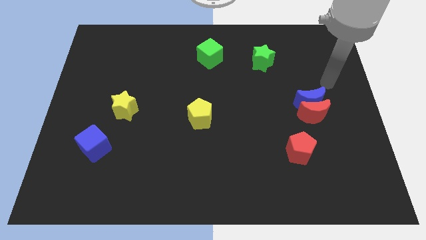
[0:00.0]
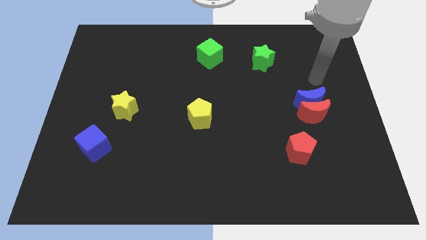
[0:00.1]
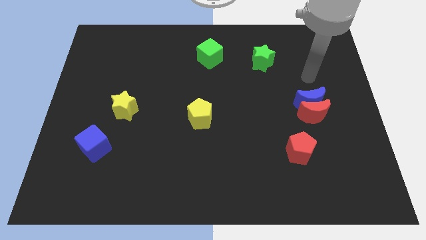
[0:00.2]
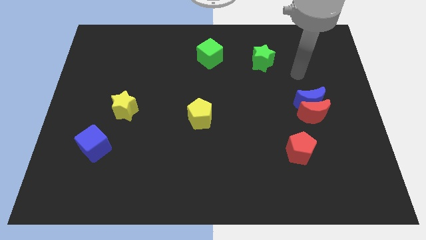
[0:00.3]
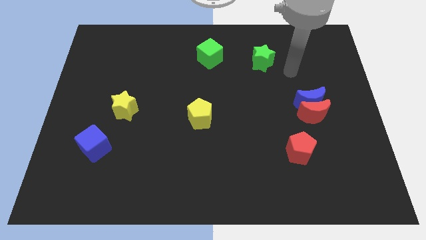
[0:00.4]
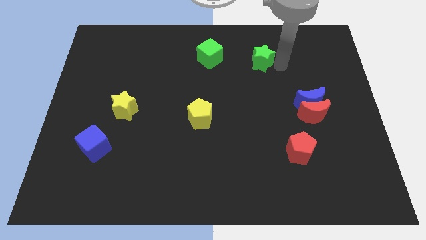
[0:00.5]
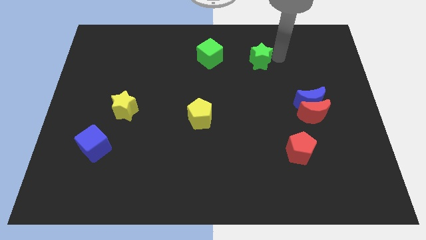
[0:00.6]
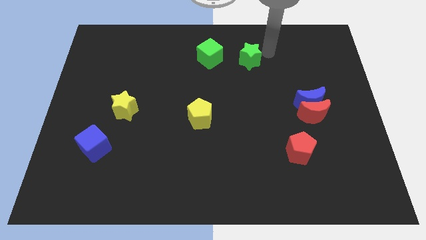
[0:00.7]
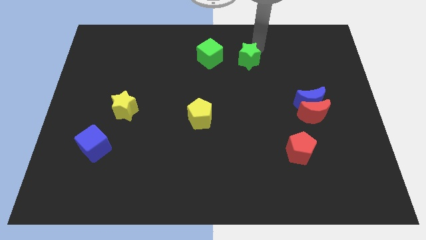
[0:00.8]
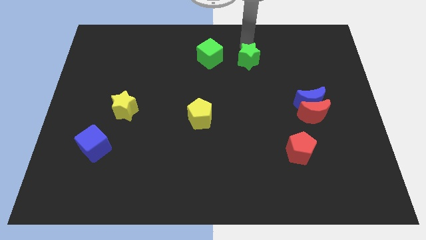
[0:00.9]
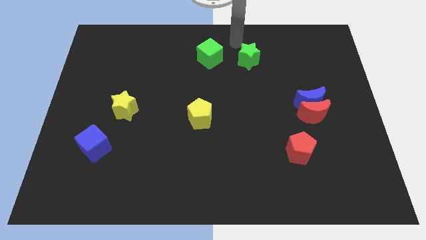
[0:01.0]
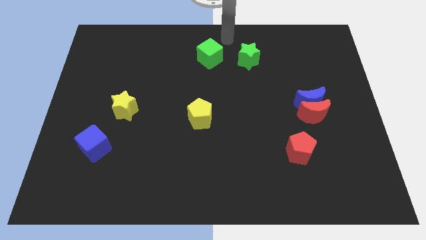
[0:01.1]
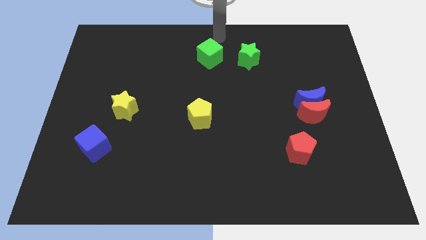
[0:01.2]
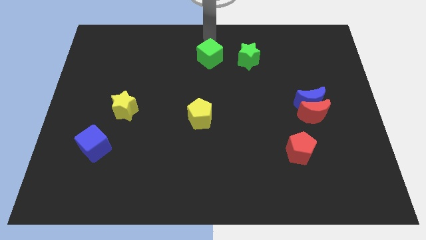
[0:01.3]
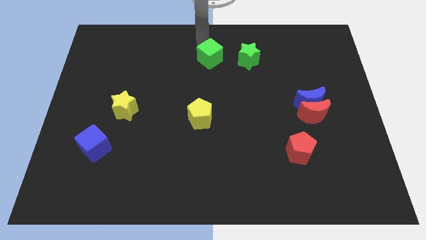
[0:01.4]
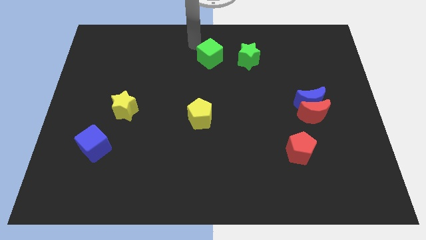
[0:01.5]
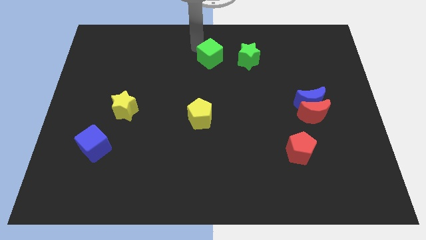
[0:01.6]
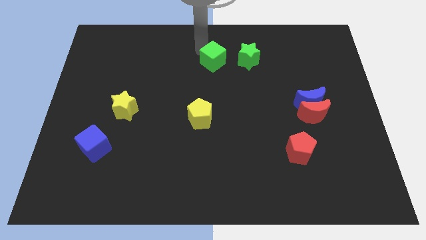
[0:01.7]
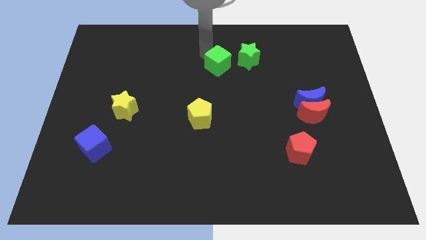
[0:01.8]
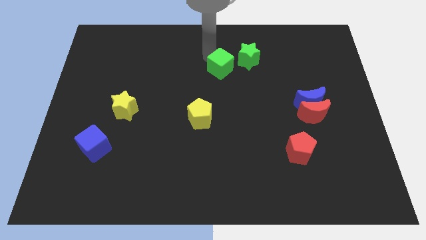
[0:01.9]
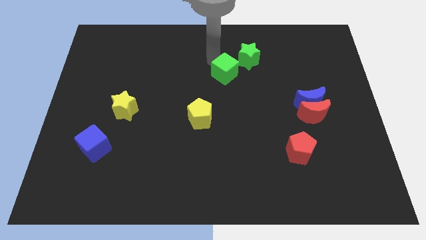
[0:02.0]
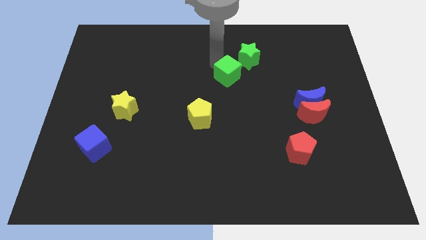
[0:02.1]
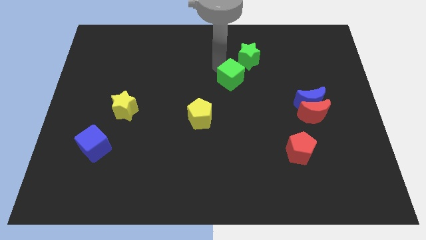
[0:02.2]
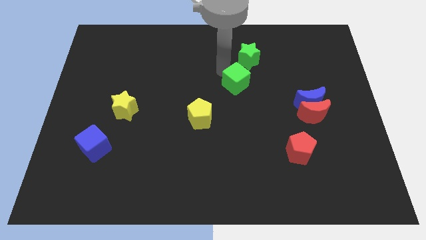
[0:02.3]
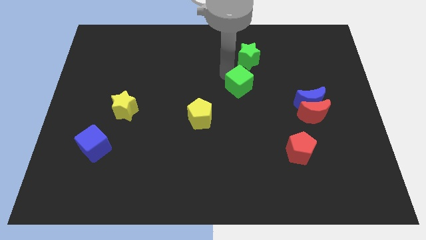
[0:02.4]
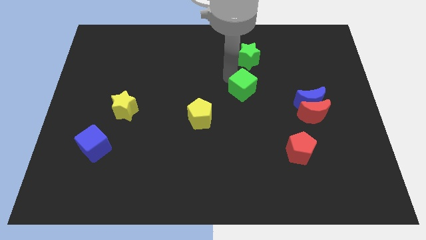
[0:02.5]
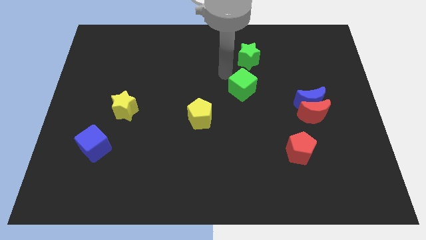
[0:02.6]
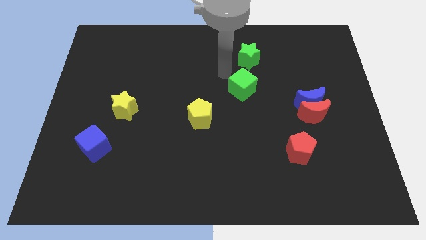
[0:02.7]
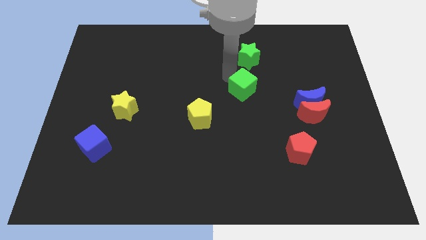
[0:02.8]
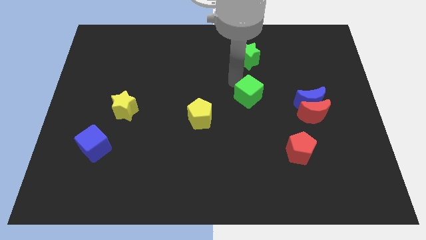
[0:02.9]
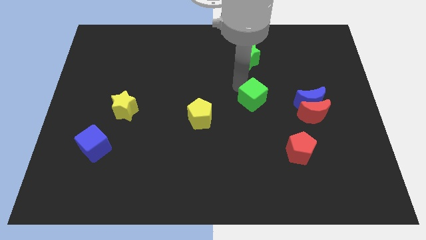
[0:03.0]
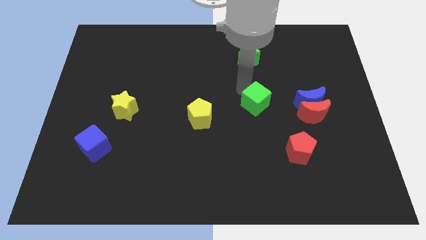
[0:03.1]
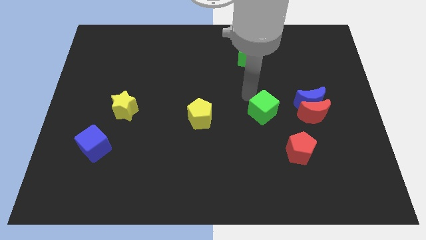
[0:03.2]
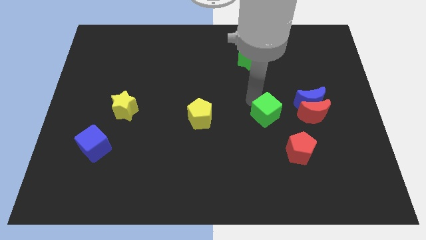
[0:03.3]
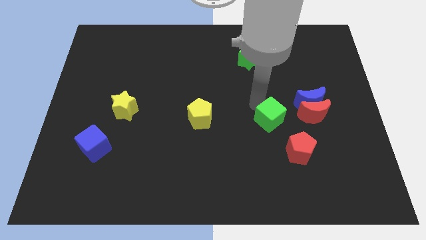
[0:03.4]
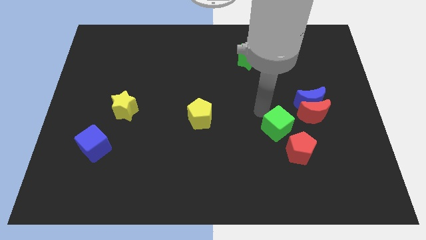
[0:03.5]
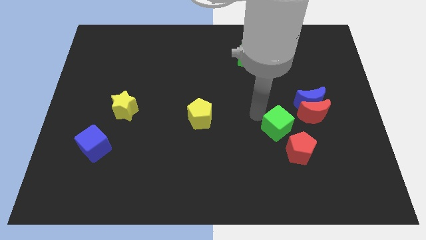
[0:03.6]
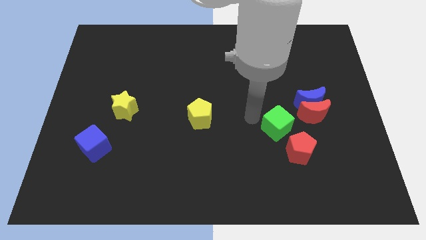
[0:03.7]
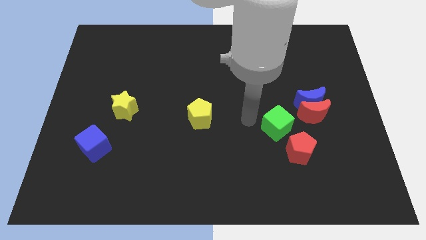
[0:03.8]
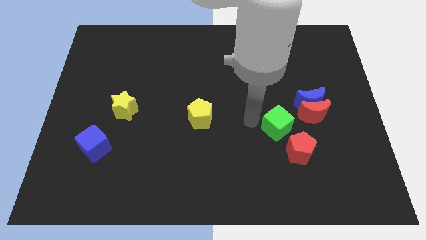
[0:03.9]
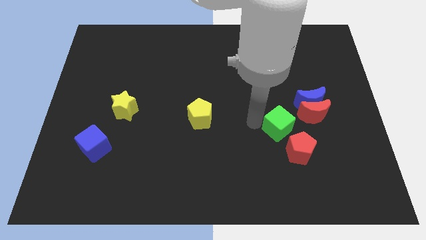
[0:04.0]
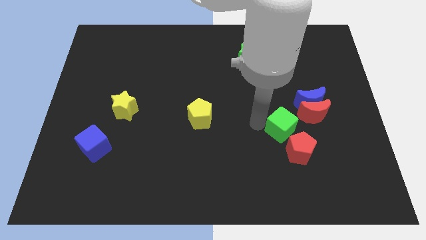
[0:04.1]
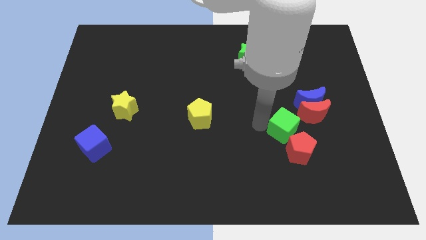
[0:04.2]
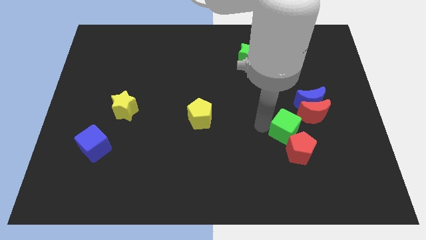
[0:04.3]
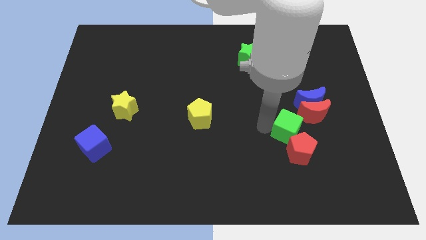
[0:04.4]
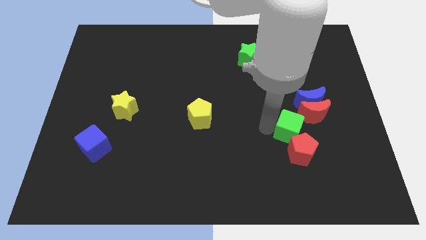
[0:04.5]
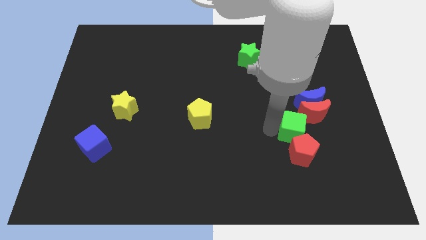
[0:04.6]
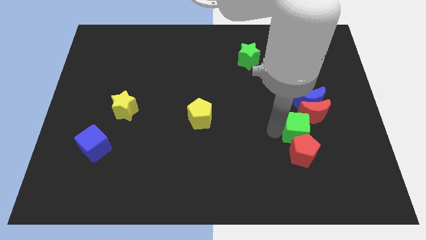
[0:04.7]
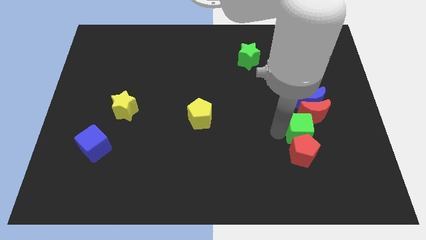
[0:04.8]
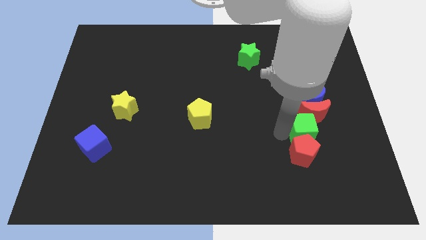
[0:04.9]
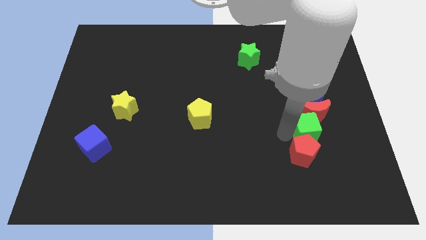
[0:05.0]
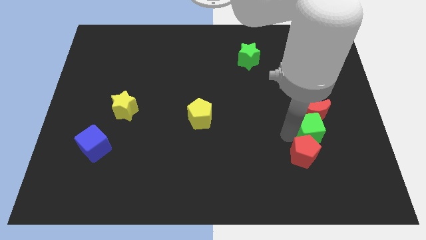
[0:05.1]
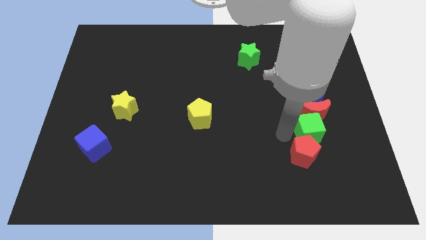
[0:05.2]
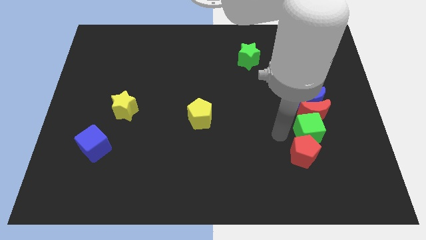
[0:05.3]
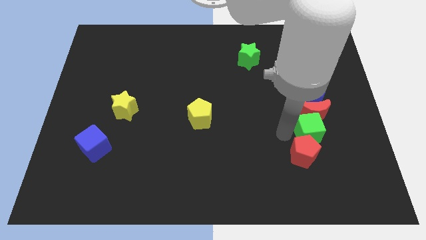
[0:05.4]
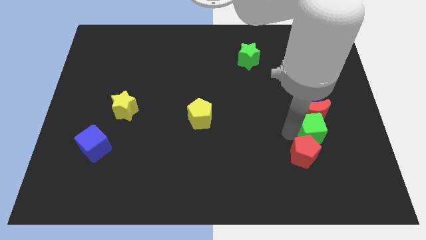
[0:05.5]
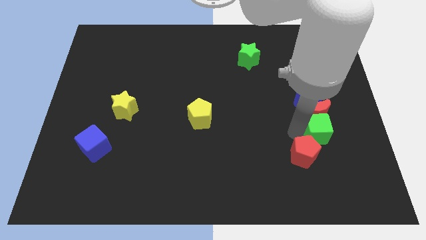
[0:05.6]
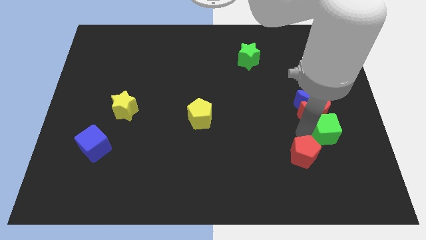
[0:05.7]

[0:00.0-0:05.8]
slide the green cube to the bottom right side of the blue moon

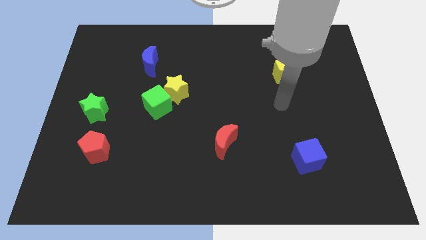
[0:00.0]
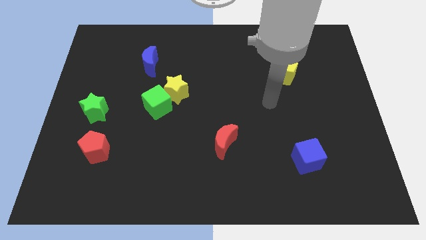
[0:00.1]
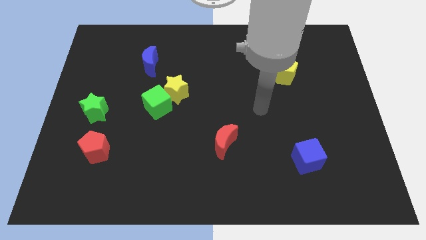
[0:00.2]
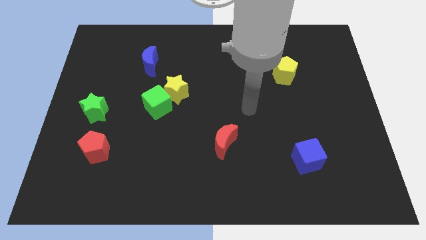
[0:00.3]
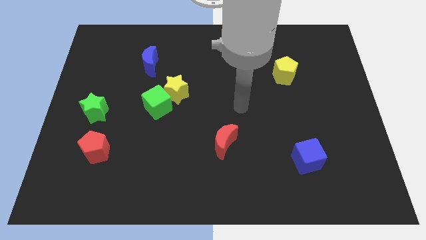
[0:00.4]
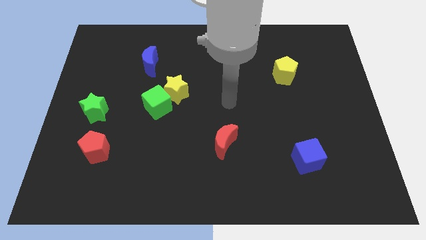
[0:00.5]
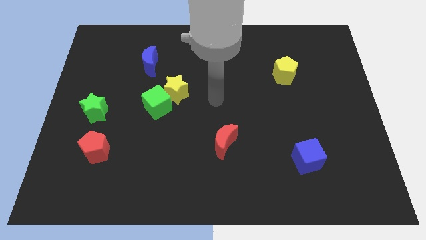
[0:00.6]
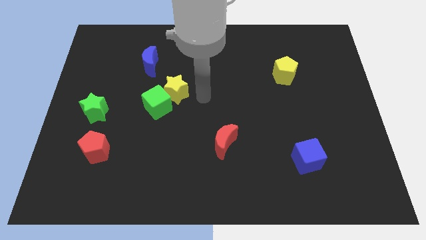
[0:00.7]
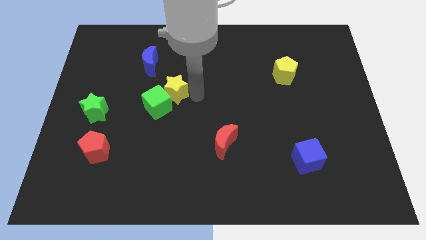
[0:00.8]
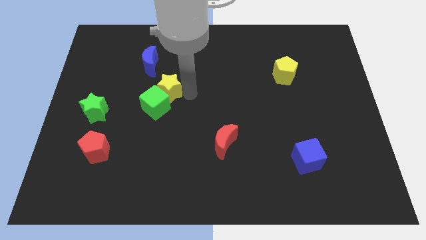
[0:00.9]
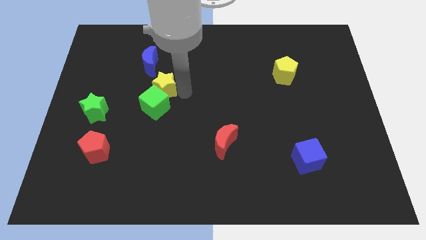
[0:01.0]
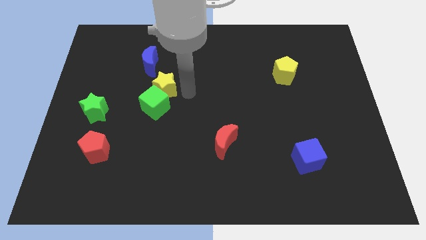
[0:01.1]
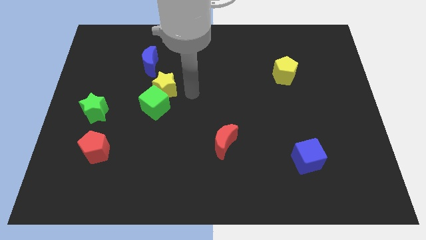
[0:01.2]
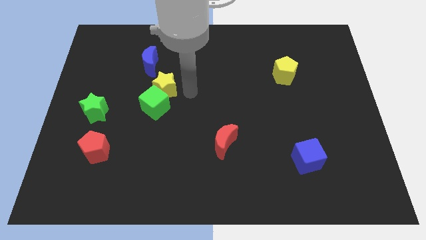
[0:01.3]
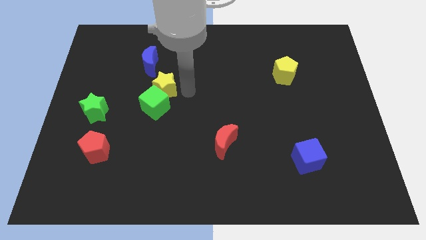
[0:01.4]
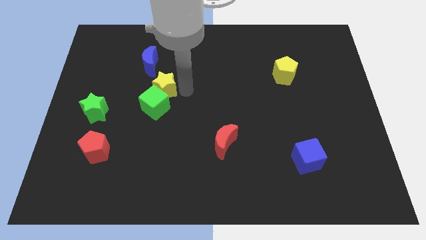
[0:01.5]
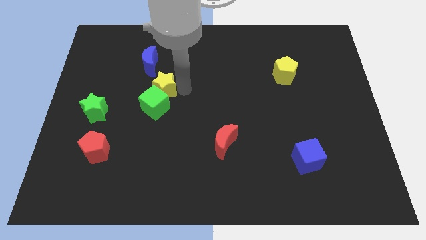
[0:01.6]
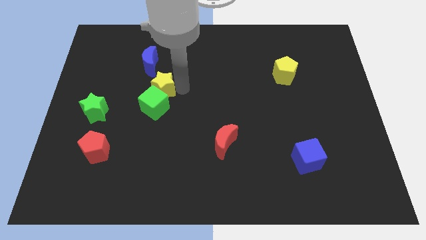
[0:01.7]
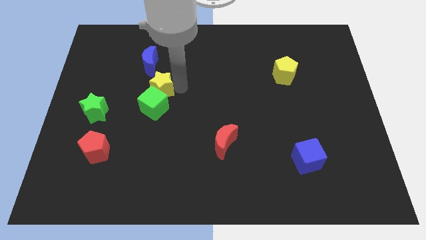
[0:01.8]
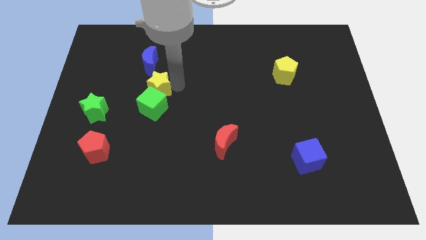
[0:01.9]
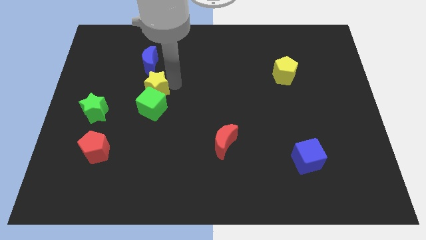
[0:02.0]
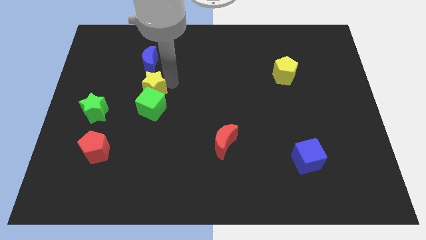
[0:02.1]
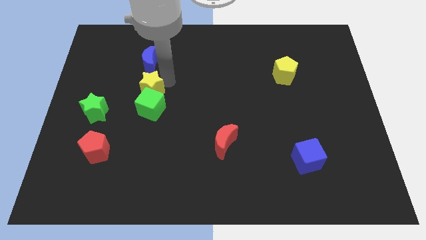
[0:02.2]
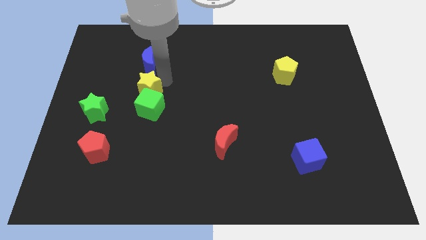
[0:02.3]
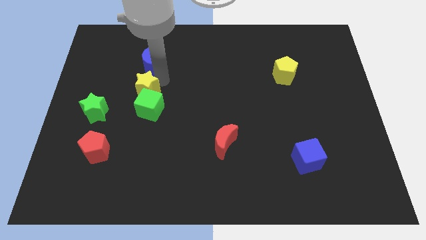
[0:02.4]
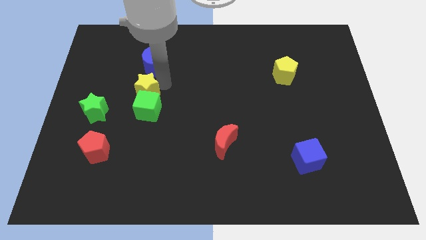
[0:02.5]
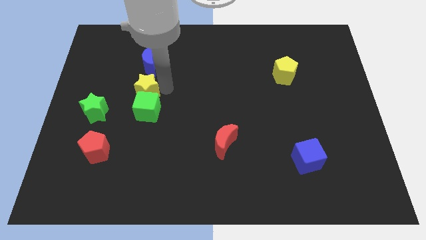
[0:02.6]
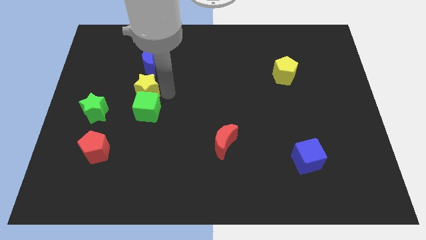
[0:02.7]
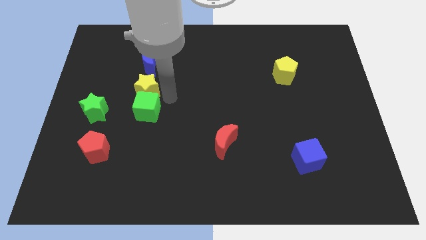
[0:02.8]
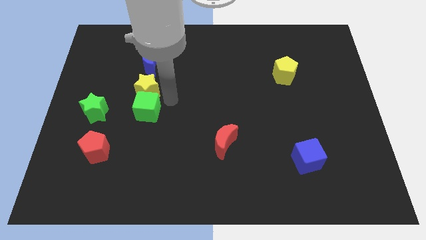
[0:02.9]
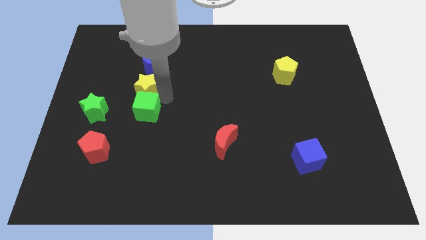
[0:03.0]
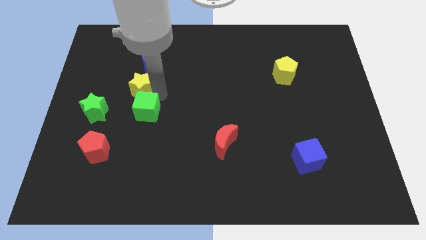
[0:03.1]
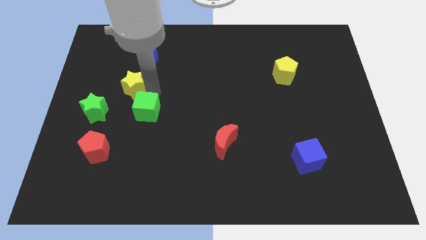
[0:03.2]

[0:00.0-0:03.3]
push the yellow star diagonally down and to the left of the blue moon
